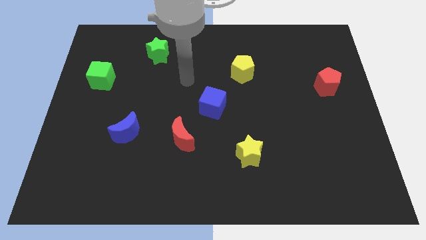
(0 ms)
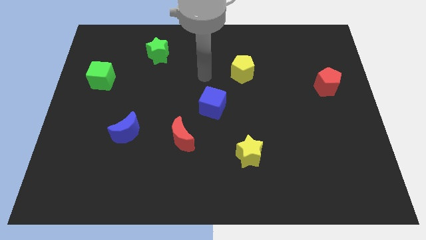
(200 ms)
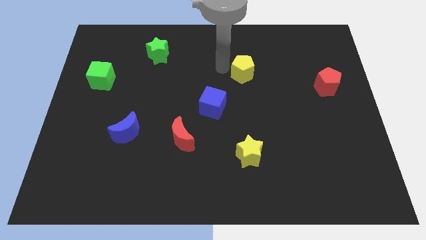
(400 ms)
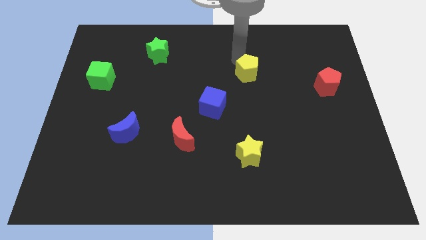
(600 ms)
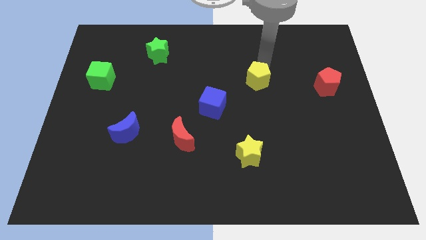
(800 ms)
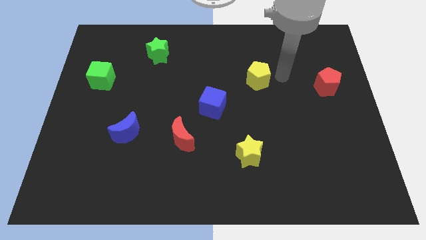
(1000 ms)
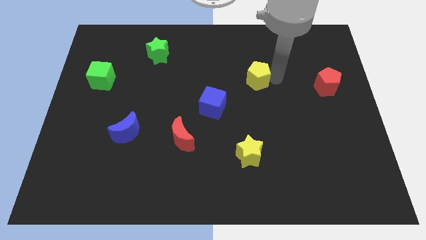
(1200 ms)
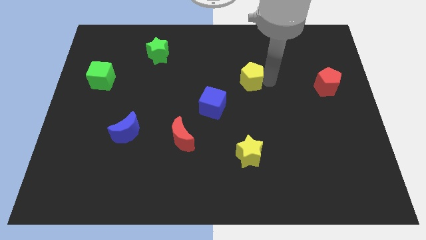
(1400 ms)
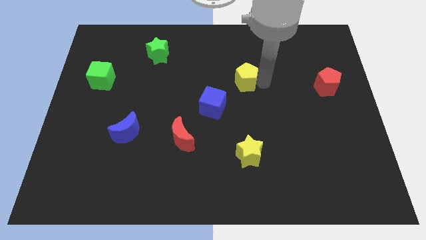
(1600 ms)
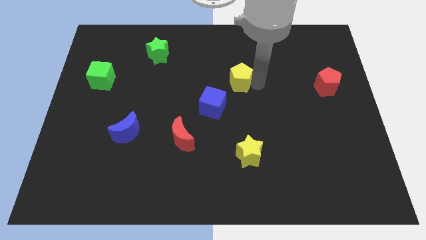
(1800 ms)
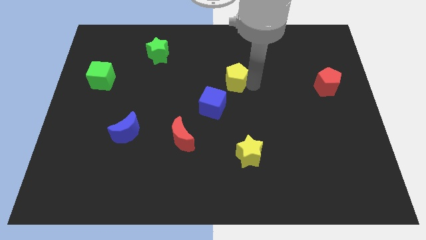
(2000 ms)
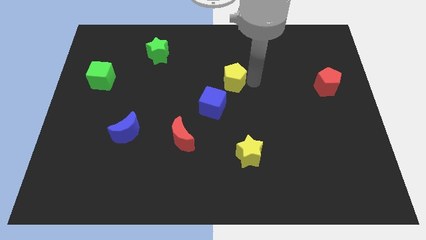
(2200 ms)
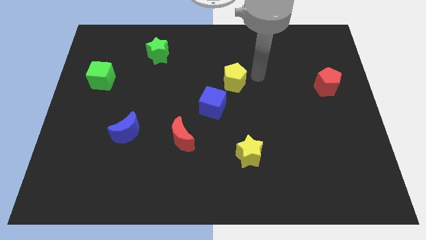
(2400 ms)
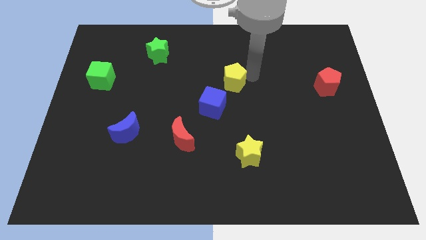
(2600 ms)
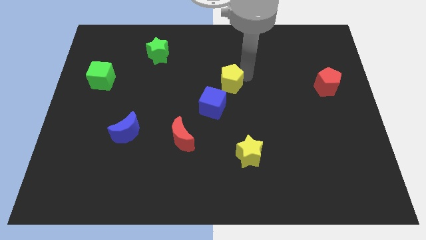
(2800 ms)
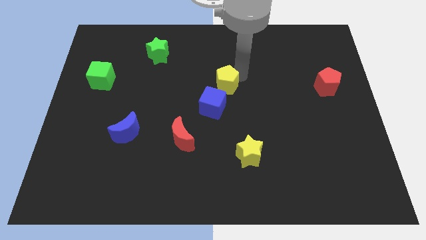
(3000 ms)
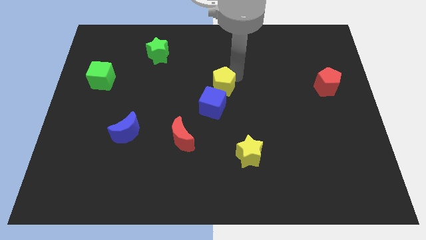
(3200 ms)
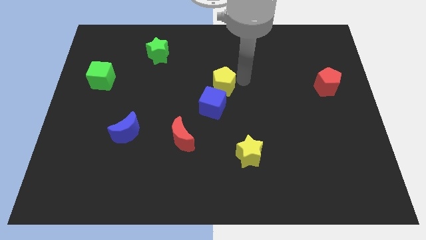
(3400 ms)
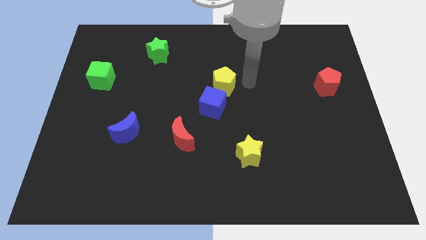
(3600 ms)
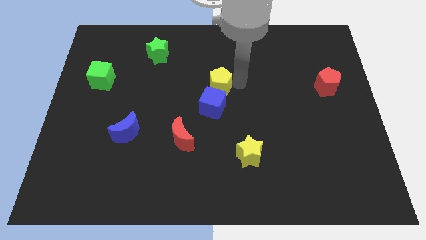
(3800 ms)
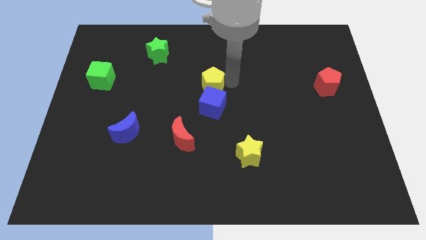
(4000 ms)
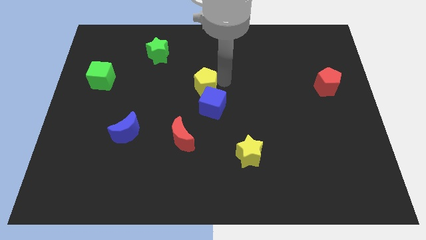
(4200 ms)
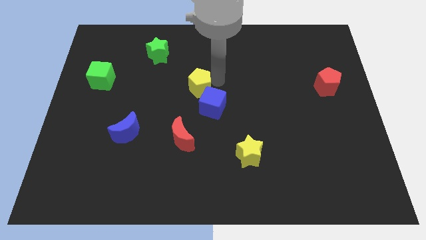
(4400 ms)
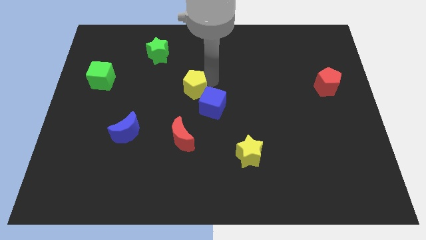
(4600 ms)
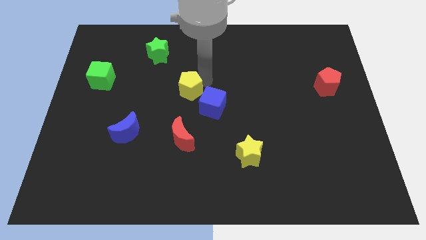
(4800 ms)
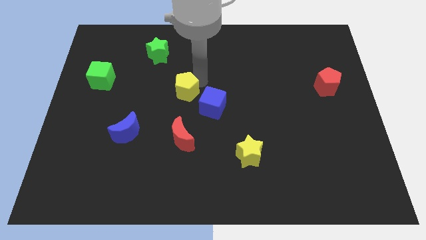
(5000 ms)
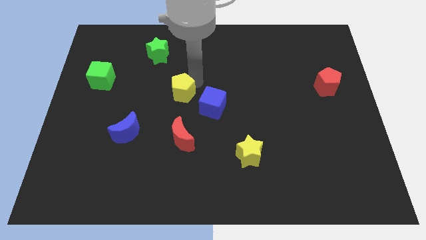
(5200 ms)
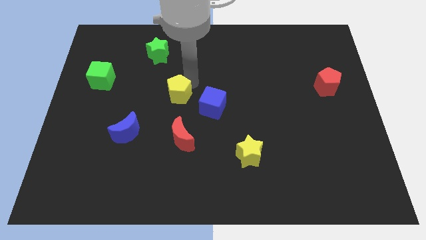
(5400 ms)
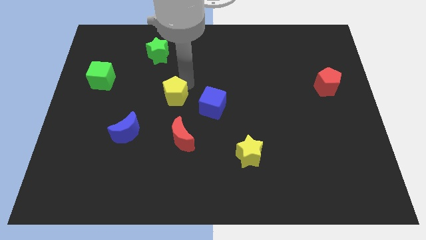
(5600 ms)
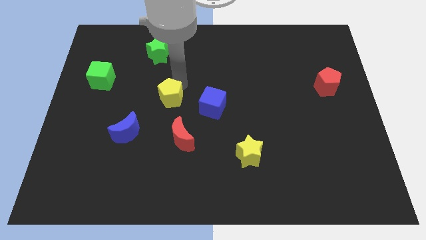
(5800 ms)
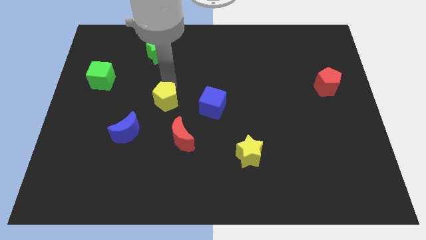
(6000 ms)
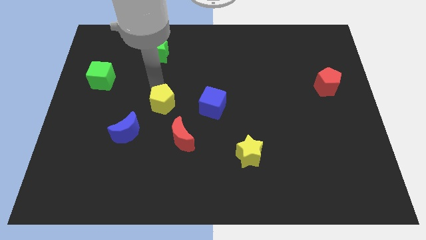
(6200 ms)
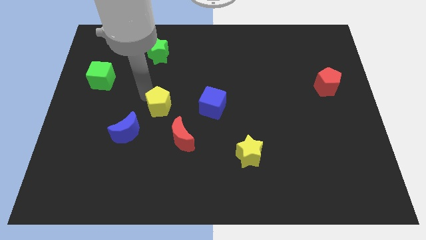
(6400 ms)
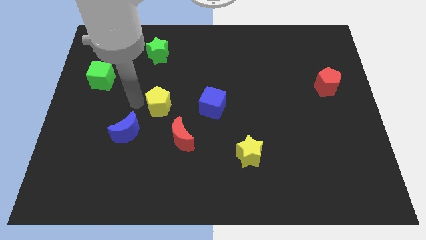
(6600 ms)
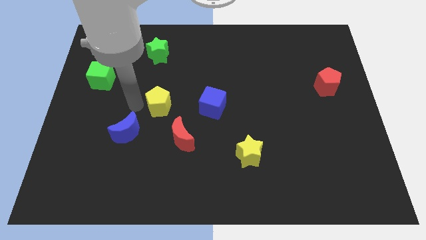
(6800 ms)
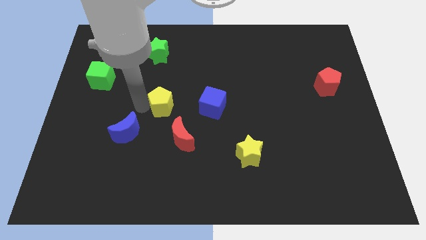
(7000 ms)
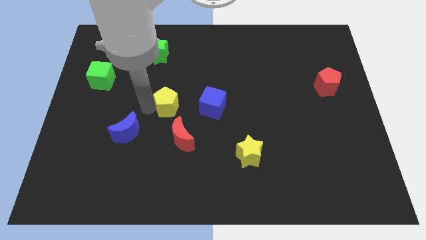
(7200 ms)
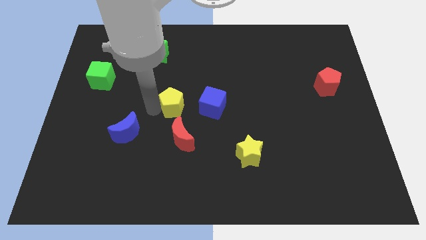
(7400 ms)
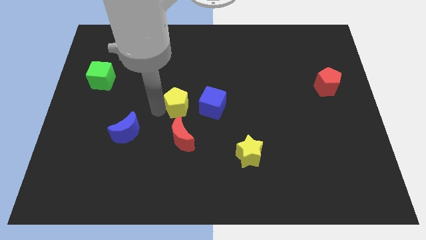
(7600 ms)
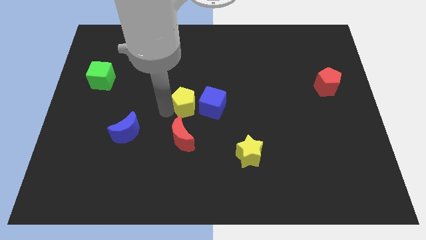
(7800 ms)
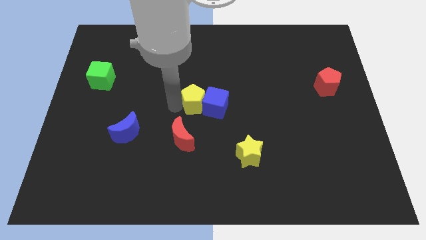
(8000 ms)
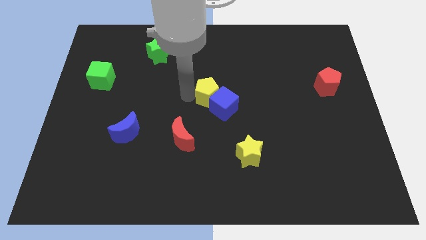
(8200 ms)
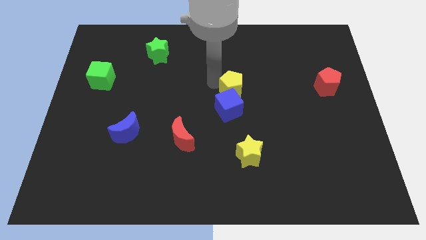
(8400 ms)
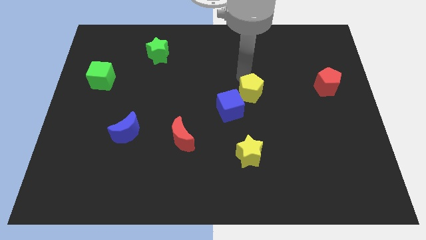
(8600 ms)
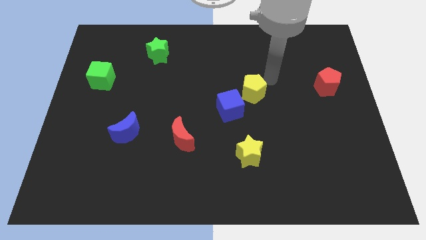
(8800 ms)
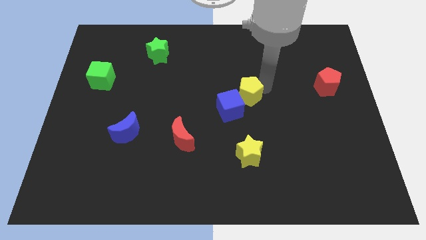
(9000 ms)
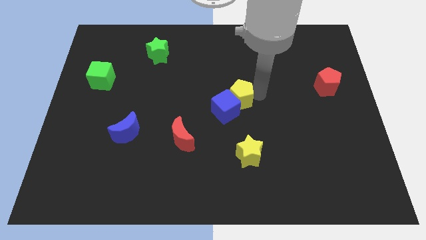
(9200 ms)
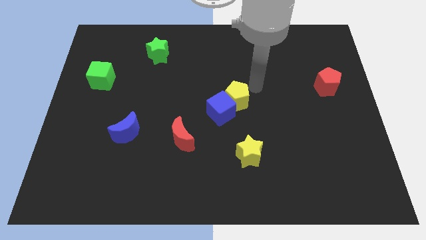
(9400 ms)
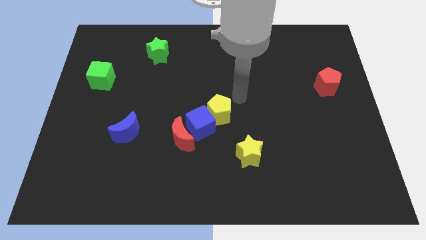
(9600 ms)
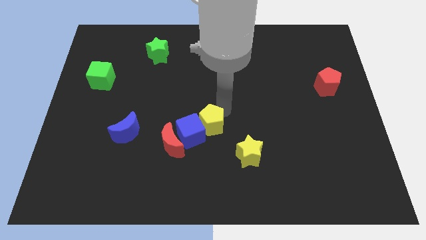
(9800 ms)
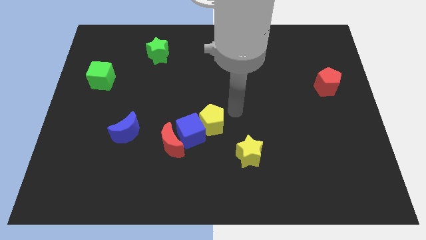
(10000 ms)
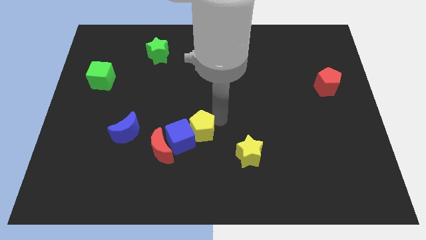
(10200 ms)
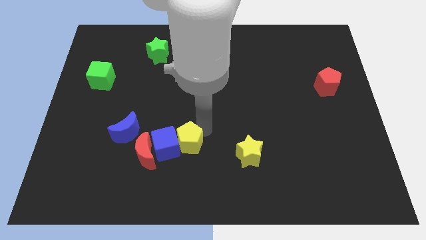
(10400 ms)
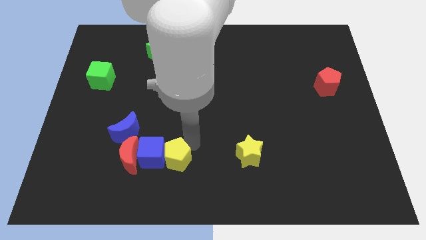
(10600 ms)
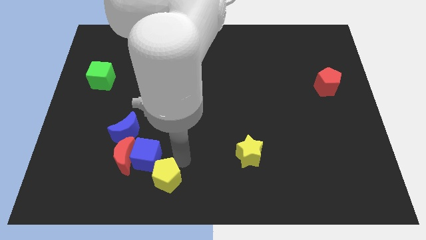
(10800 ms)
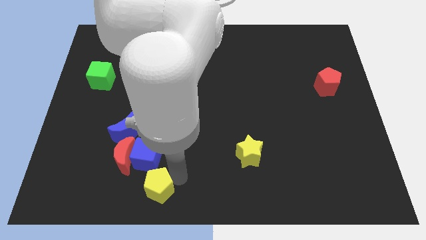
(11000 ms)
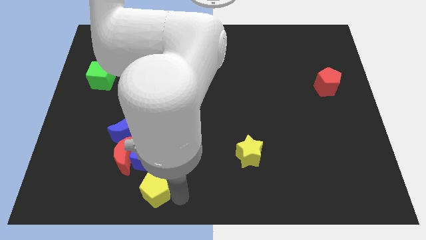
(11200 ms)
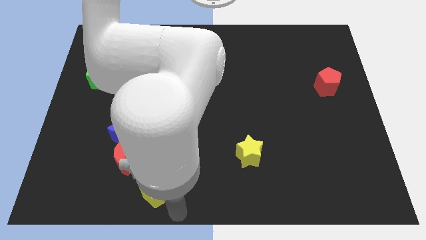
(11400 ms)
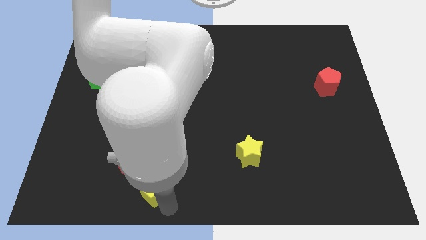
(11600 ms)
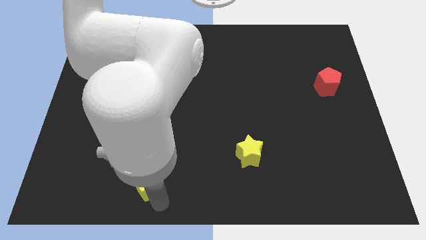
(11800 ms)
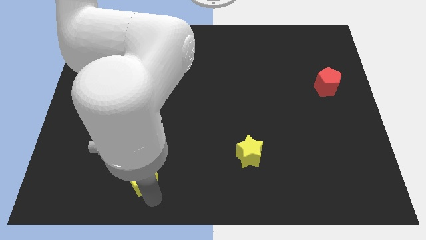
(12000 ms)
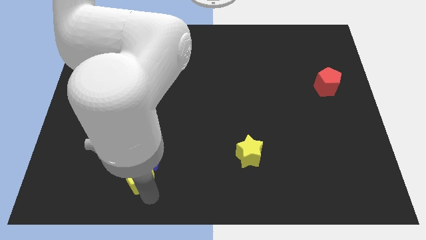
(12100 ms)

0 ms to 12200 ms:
push the yellow pentagon close to the red moon

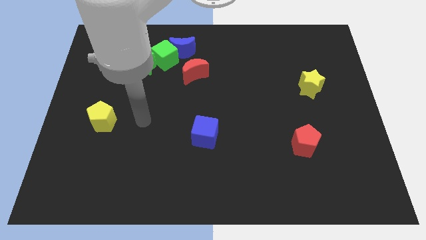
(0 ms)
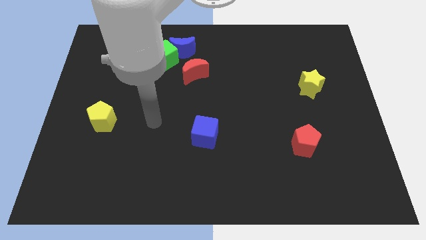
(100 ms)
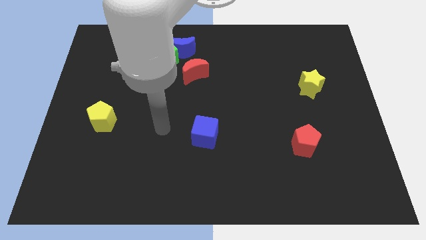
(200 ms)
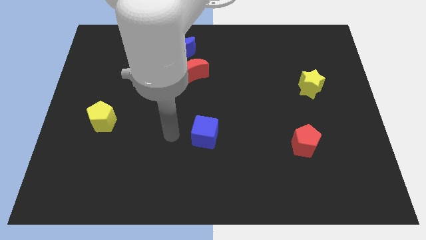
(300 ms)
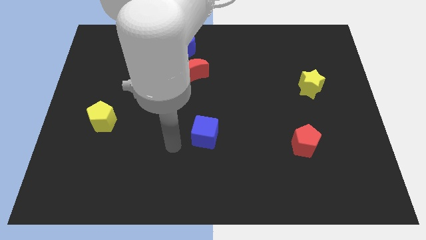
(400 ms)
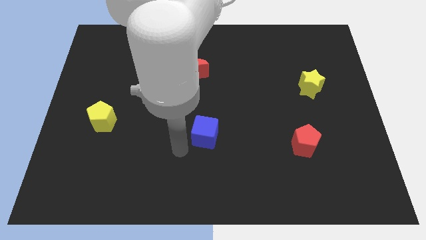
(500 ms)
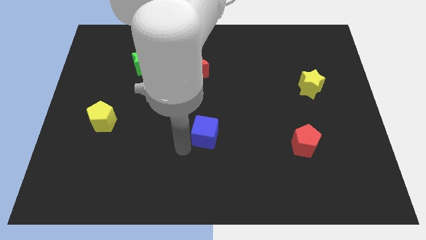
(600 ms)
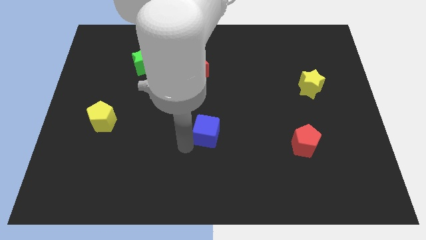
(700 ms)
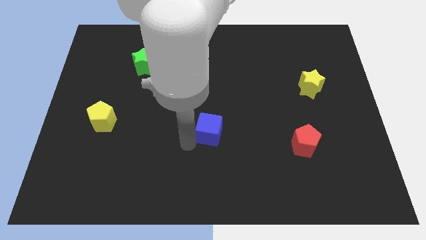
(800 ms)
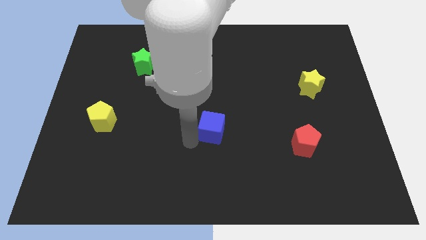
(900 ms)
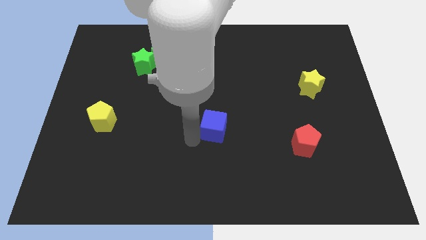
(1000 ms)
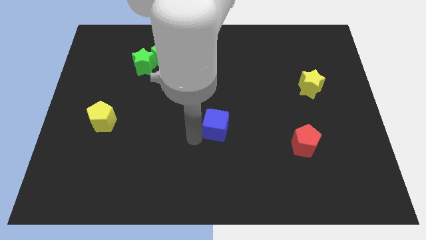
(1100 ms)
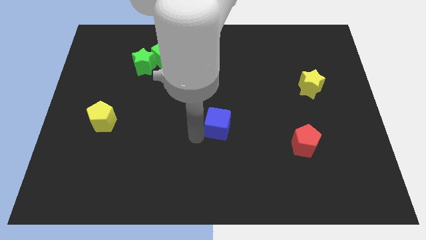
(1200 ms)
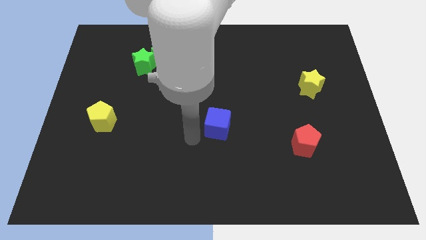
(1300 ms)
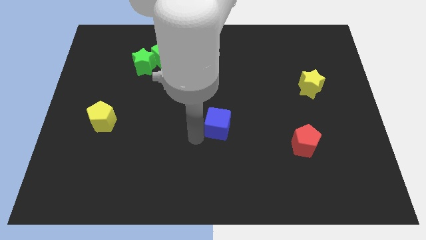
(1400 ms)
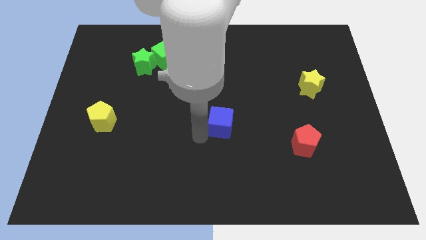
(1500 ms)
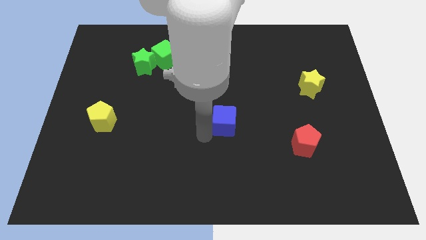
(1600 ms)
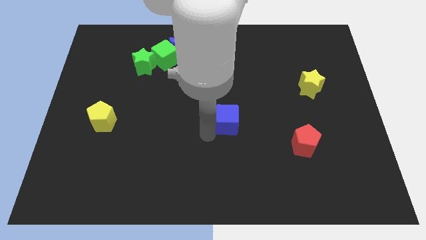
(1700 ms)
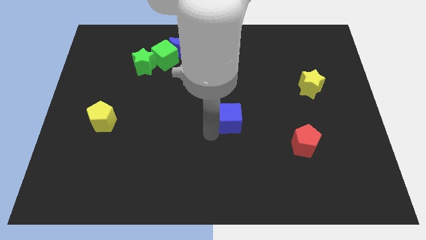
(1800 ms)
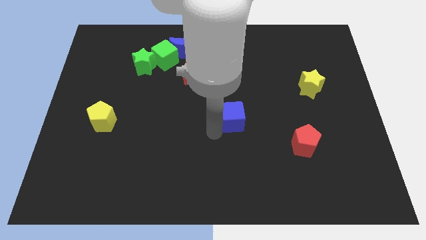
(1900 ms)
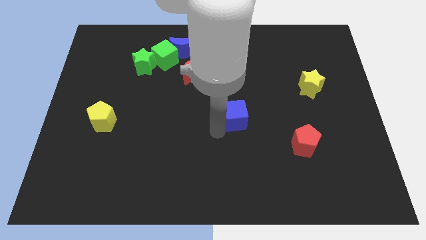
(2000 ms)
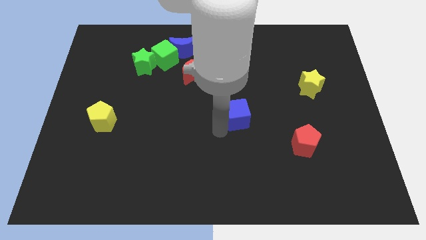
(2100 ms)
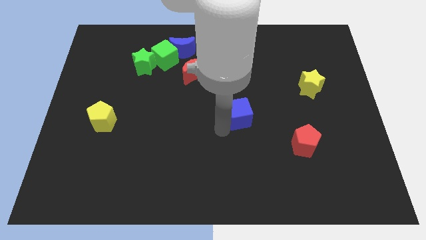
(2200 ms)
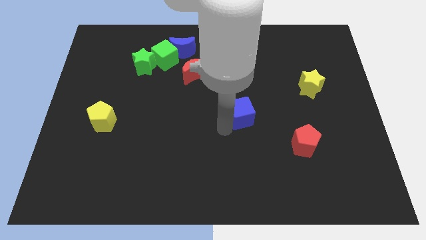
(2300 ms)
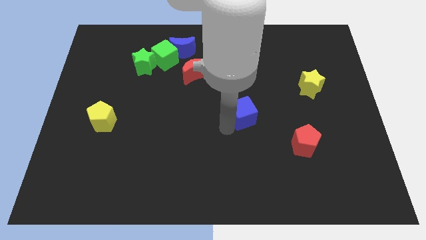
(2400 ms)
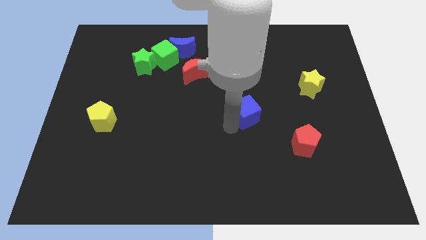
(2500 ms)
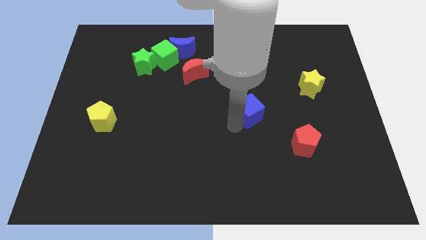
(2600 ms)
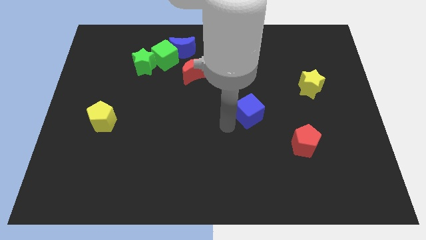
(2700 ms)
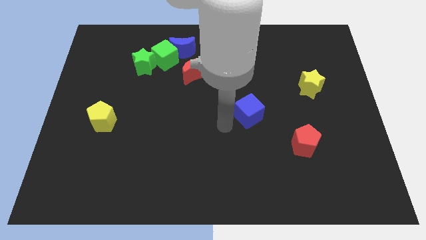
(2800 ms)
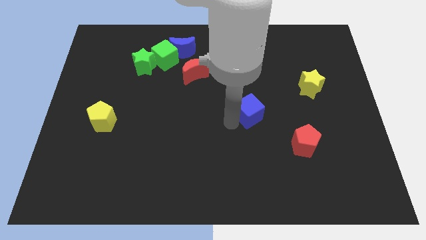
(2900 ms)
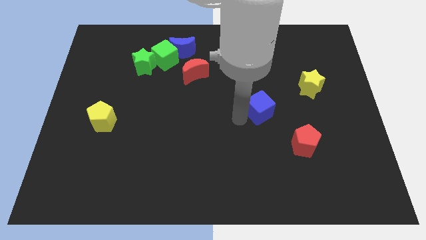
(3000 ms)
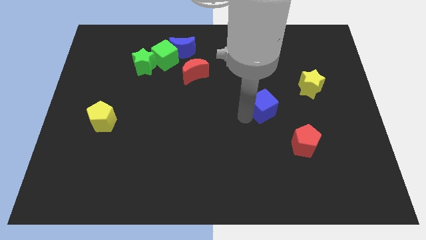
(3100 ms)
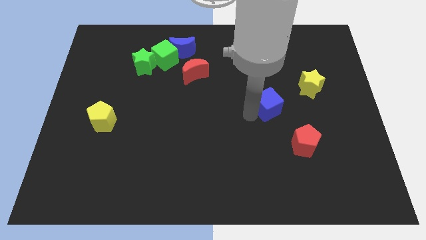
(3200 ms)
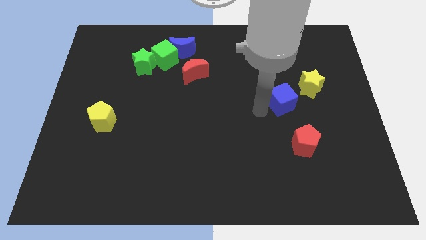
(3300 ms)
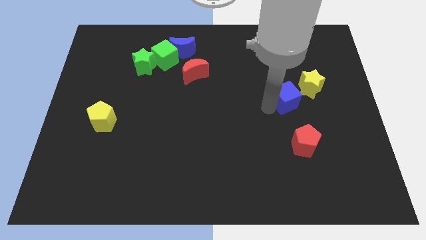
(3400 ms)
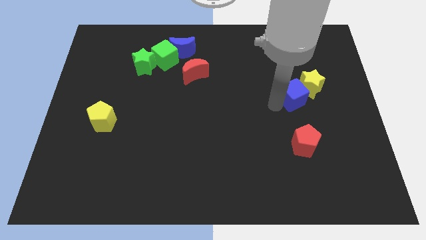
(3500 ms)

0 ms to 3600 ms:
put the blue cube to the yellow star
